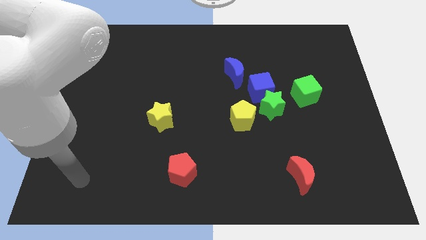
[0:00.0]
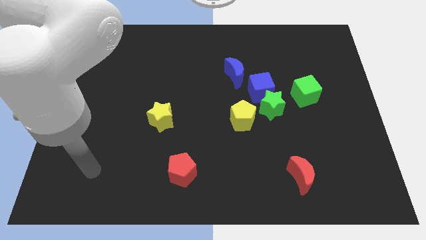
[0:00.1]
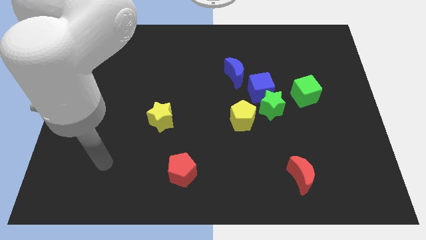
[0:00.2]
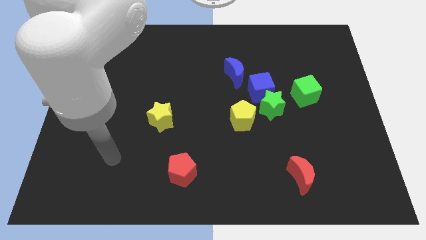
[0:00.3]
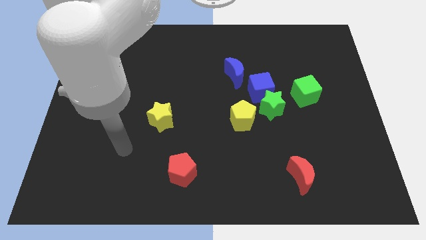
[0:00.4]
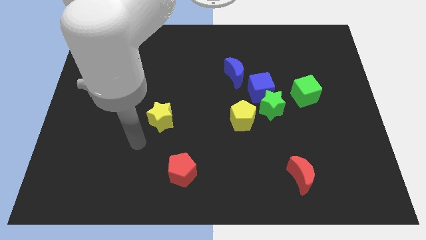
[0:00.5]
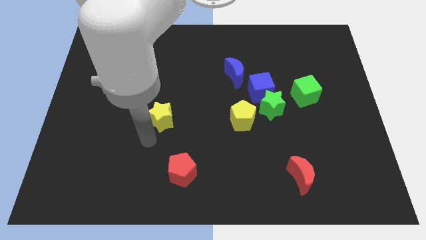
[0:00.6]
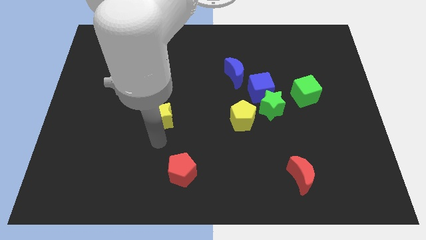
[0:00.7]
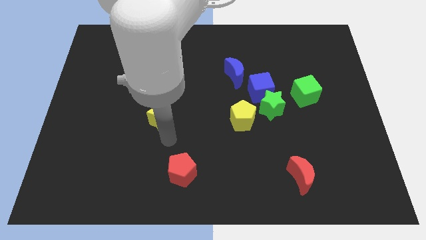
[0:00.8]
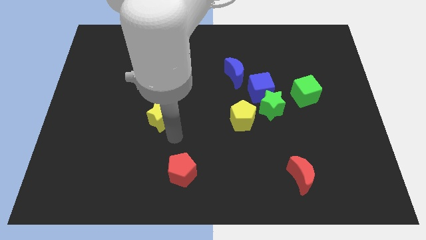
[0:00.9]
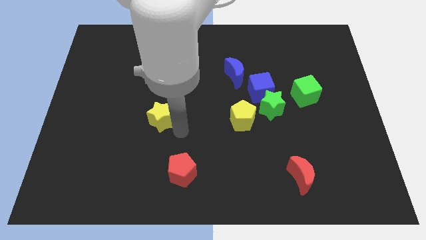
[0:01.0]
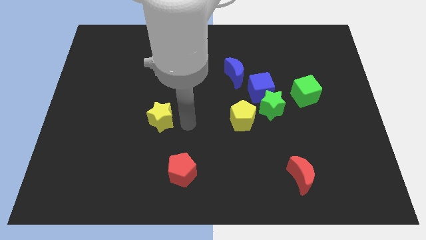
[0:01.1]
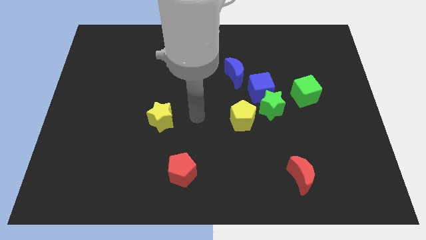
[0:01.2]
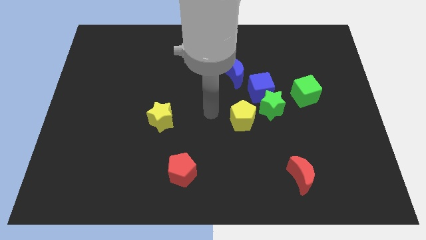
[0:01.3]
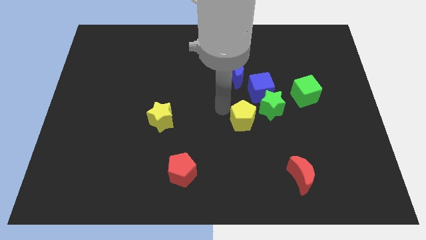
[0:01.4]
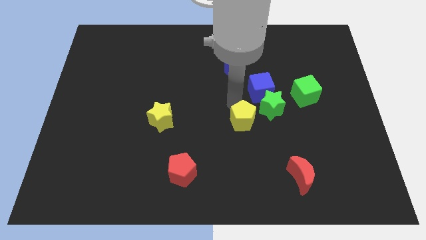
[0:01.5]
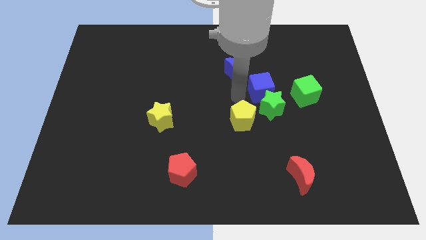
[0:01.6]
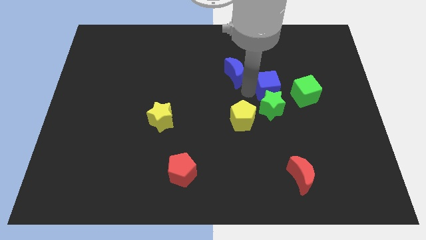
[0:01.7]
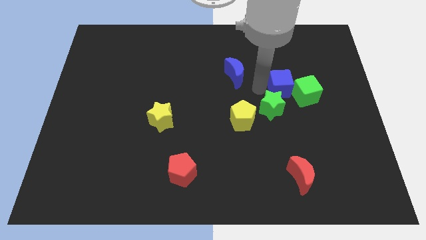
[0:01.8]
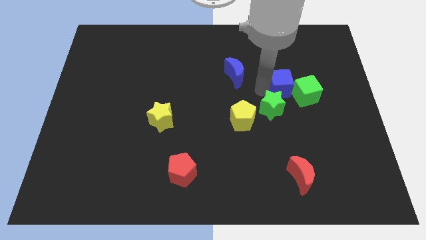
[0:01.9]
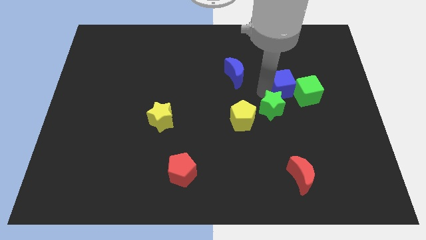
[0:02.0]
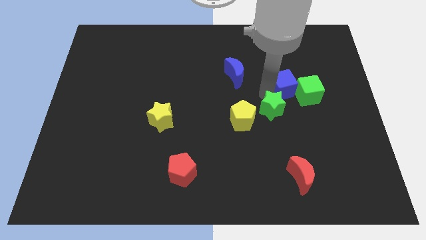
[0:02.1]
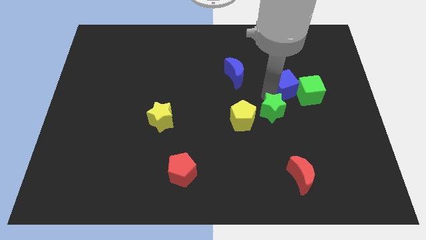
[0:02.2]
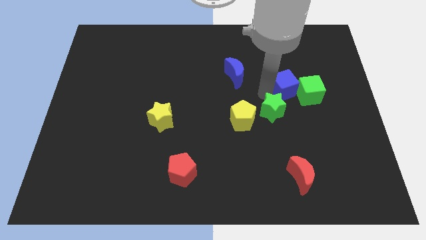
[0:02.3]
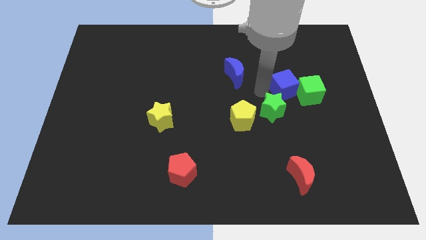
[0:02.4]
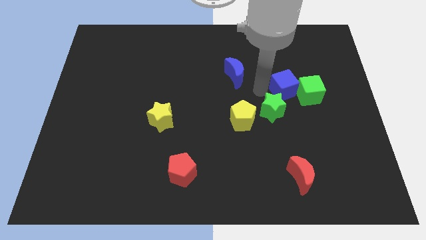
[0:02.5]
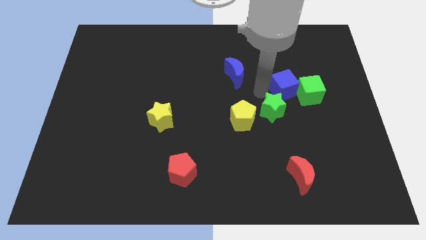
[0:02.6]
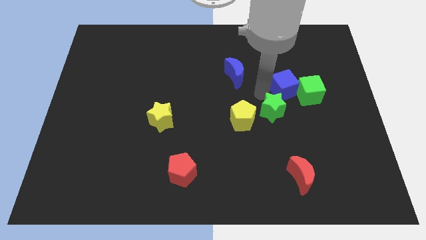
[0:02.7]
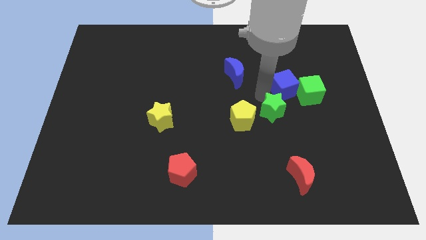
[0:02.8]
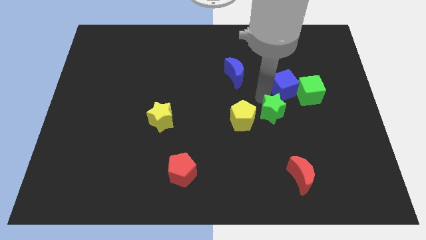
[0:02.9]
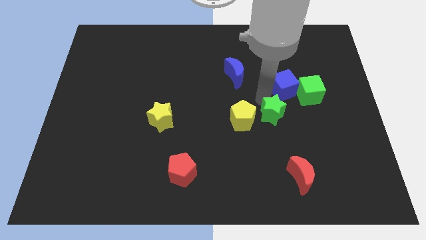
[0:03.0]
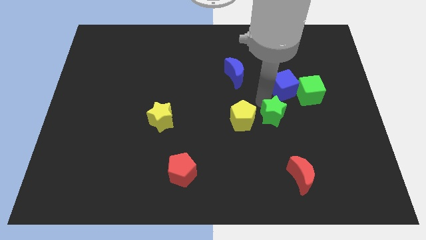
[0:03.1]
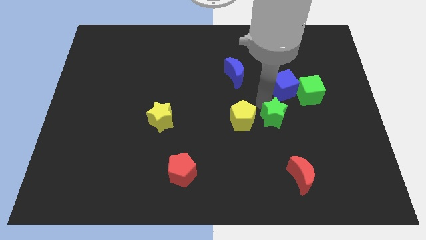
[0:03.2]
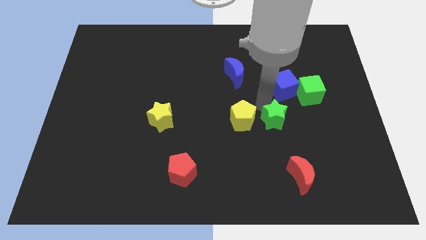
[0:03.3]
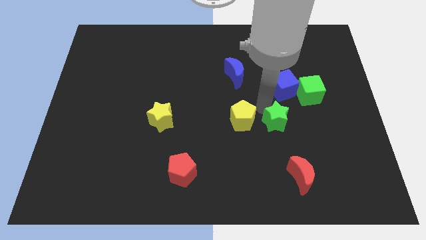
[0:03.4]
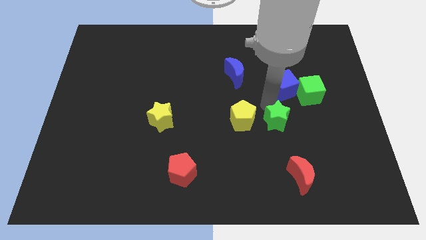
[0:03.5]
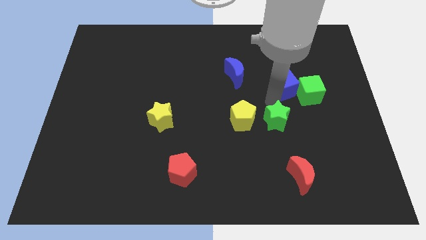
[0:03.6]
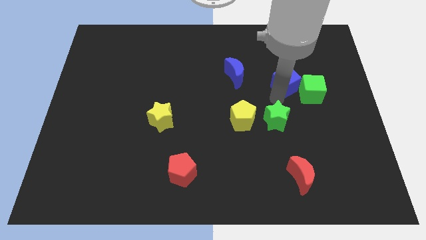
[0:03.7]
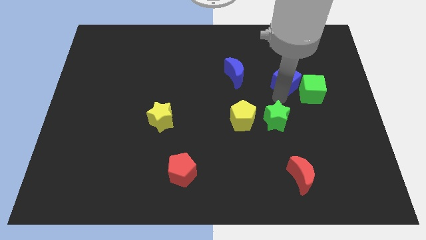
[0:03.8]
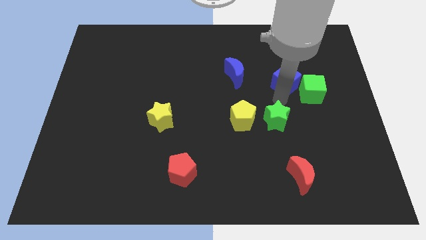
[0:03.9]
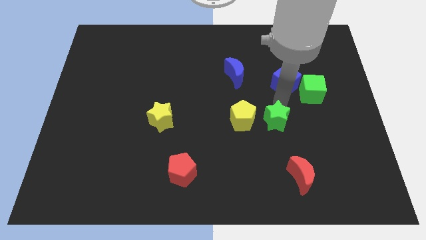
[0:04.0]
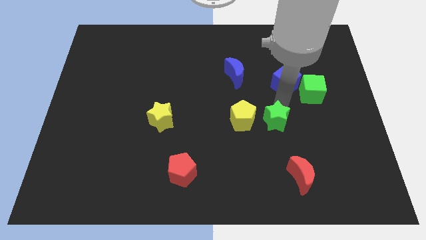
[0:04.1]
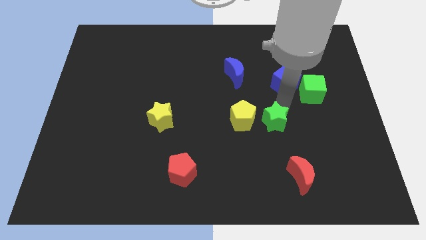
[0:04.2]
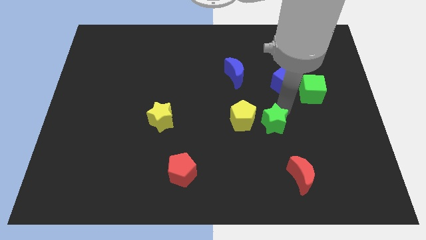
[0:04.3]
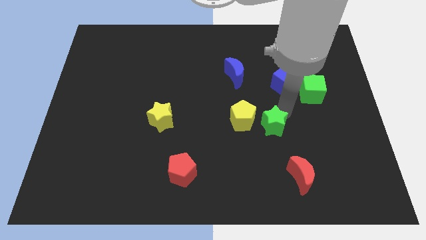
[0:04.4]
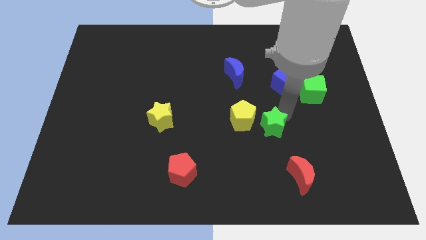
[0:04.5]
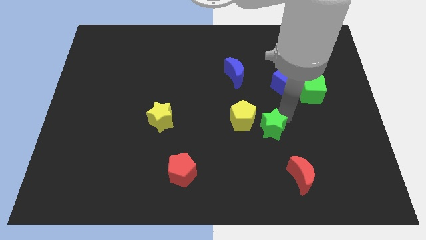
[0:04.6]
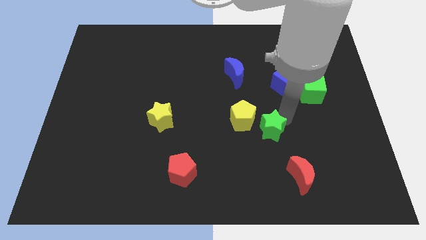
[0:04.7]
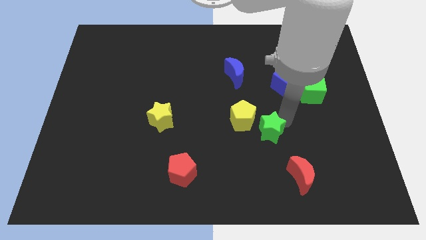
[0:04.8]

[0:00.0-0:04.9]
pull the green star apart from the blue cube, yellow pentagon, and green cube

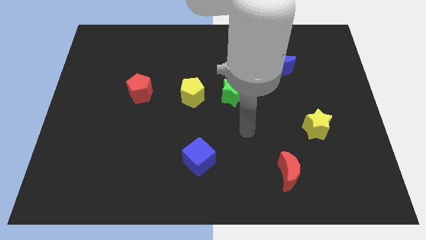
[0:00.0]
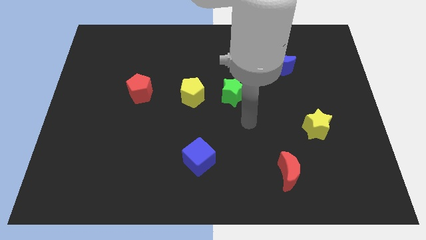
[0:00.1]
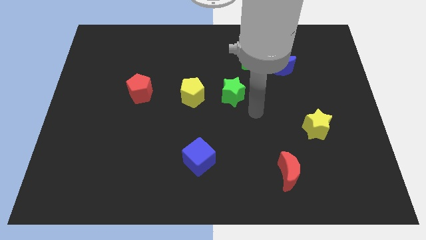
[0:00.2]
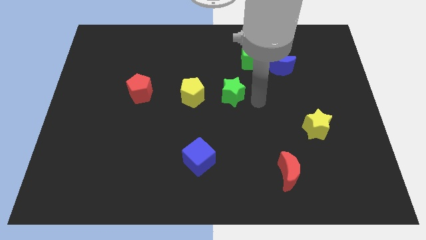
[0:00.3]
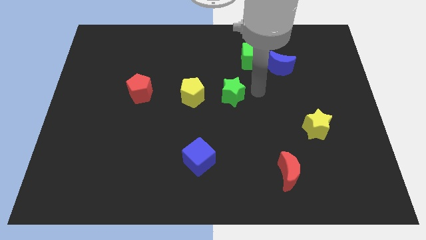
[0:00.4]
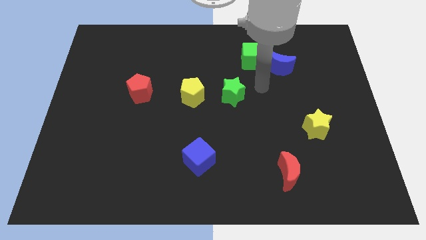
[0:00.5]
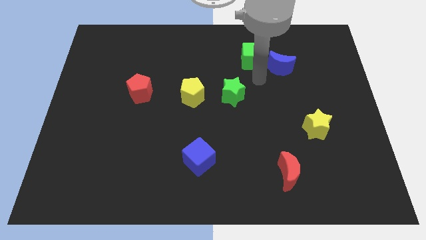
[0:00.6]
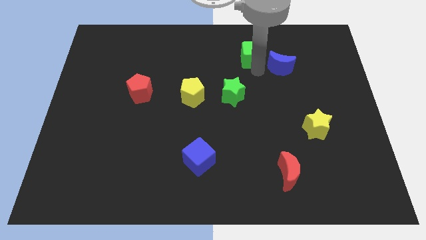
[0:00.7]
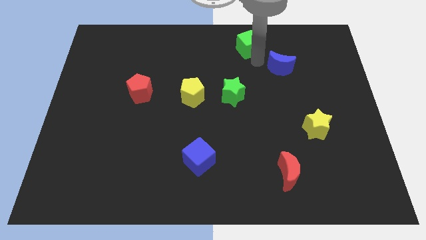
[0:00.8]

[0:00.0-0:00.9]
pull the blue moon apart from the green cube

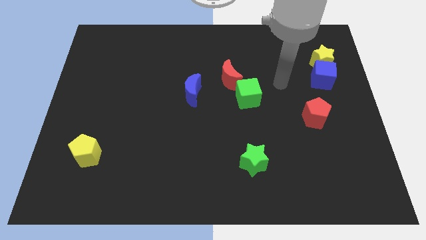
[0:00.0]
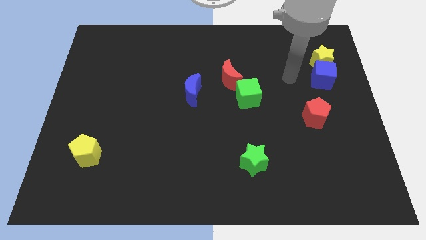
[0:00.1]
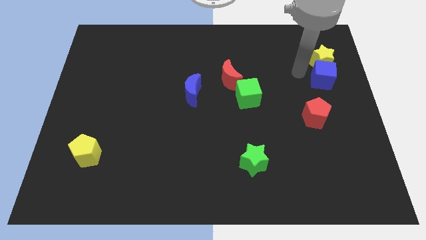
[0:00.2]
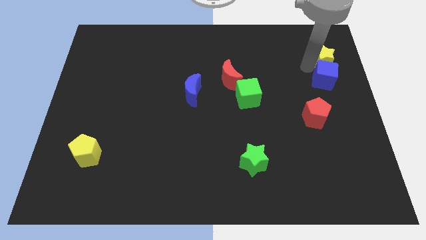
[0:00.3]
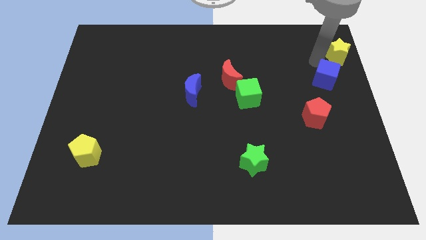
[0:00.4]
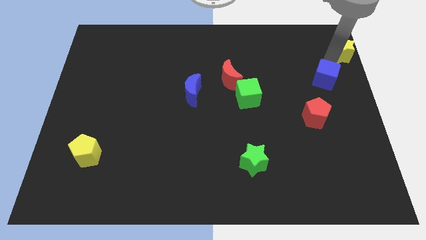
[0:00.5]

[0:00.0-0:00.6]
pull the blue cube apart from the yellow star

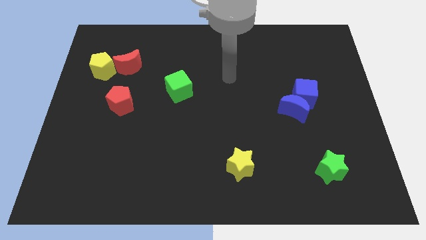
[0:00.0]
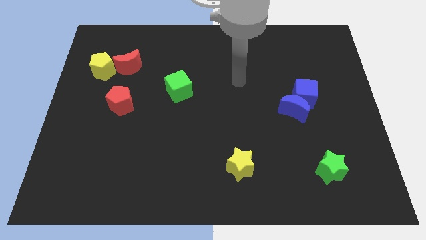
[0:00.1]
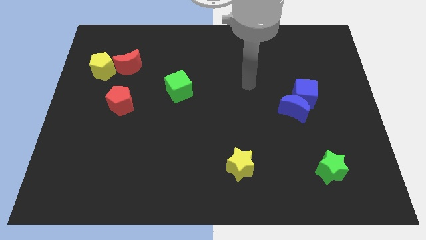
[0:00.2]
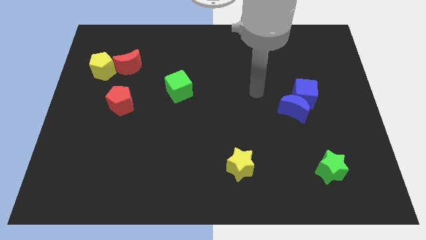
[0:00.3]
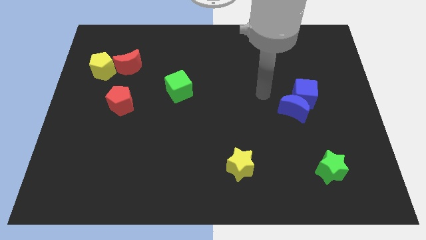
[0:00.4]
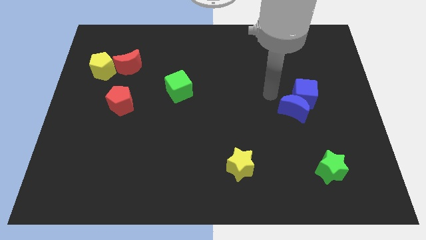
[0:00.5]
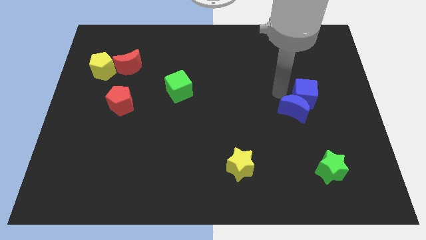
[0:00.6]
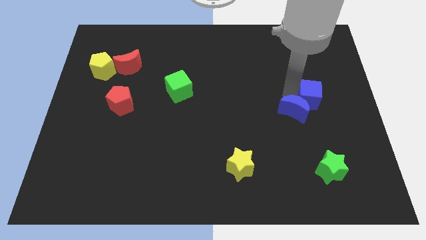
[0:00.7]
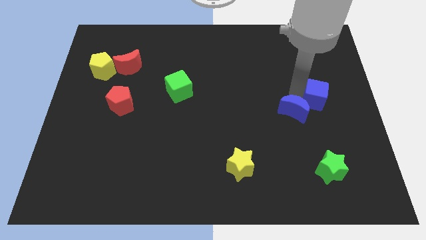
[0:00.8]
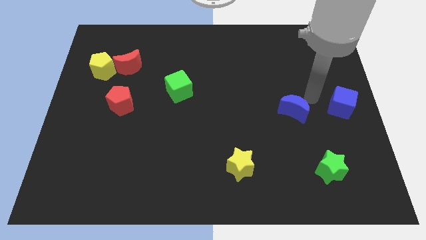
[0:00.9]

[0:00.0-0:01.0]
separate the blue moon from the blue cube

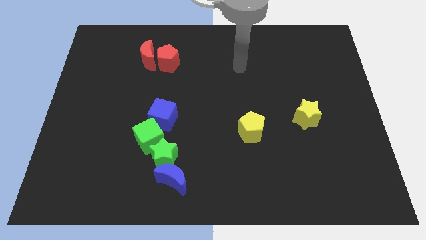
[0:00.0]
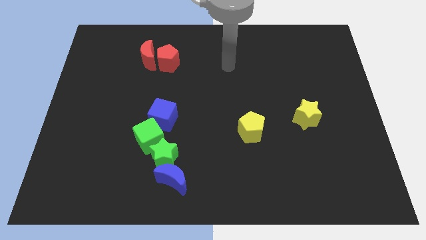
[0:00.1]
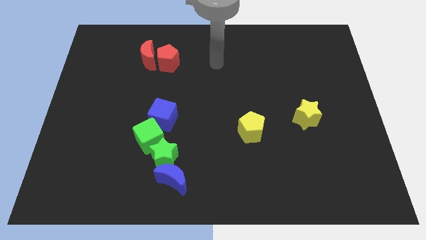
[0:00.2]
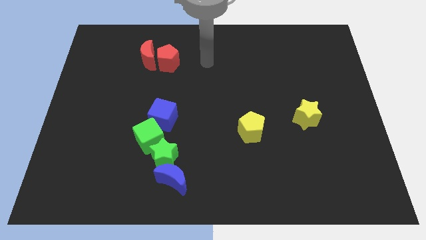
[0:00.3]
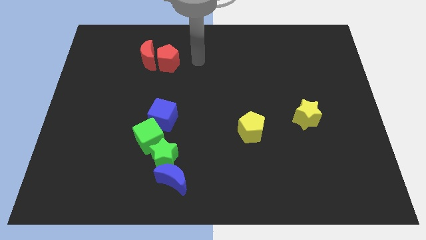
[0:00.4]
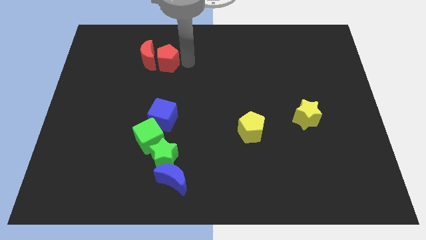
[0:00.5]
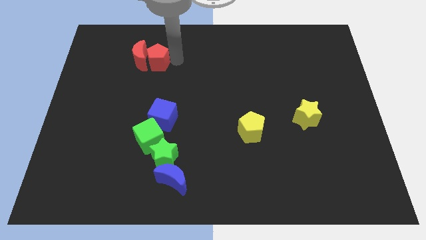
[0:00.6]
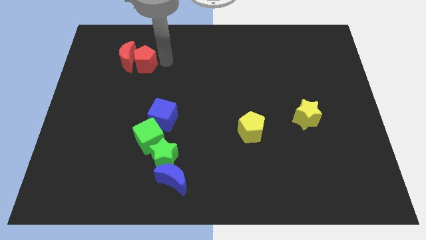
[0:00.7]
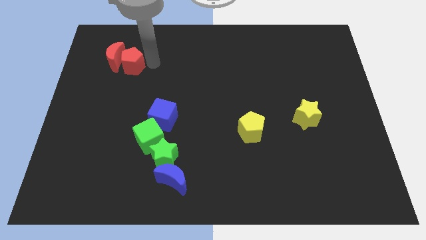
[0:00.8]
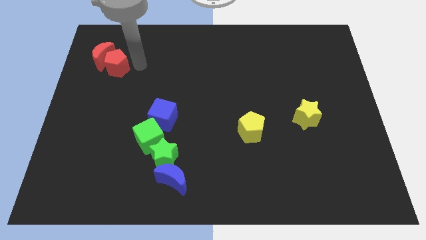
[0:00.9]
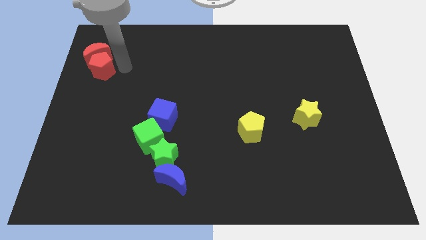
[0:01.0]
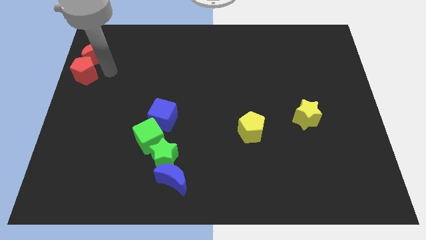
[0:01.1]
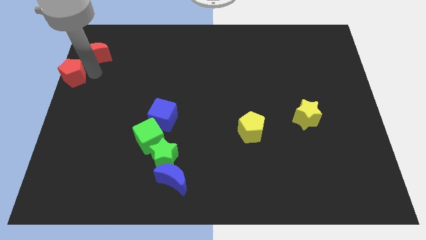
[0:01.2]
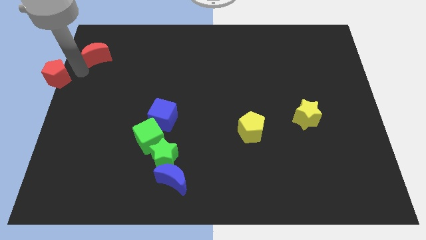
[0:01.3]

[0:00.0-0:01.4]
pull the red moon apart from the red pentagon

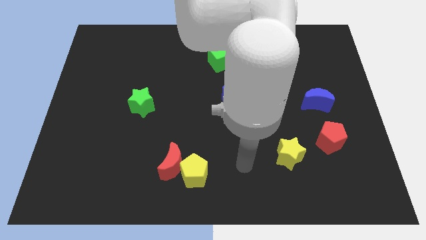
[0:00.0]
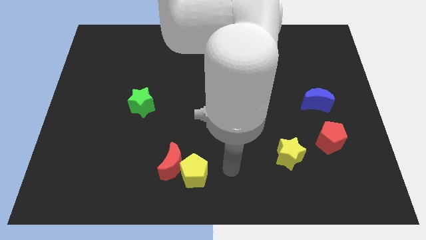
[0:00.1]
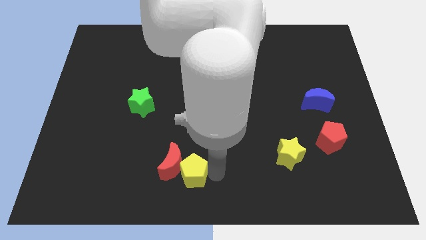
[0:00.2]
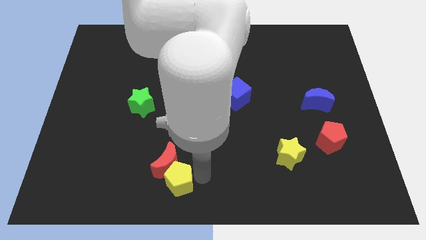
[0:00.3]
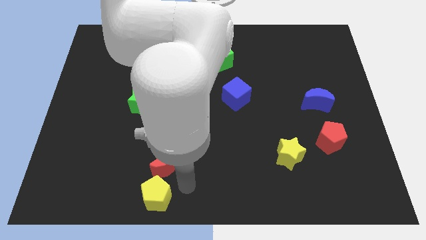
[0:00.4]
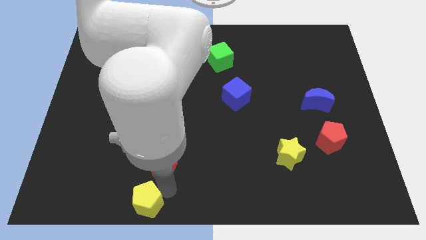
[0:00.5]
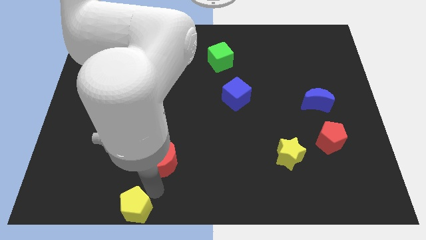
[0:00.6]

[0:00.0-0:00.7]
separate the red moon from the yellow pentagon
